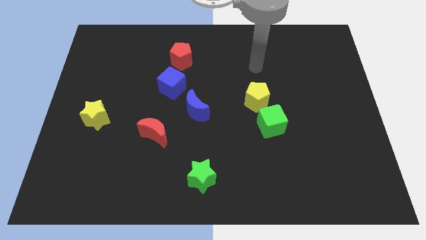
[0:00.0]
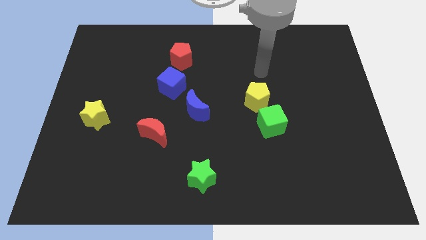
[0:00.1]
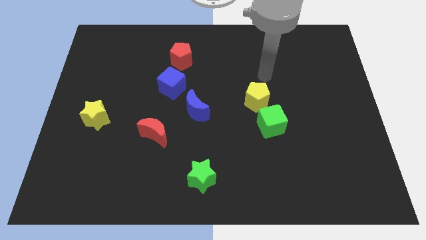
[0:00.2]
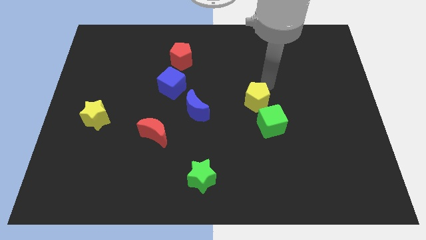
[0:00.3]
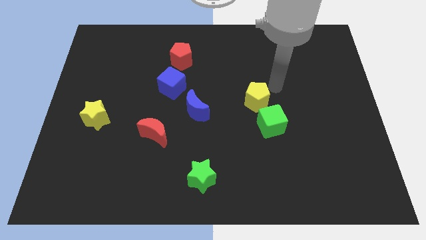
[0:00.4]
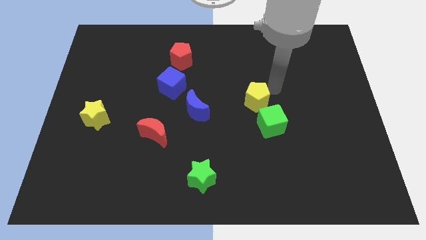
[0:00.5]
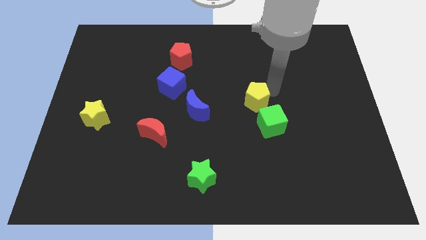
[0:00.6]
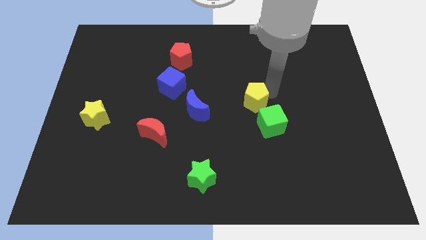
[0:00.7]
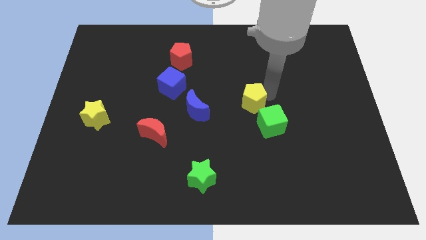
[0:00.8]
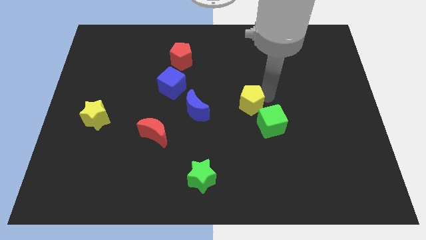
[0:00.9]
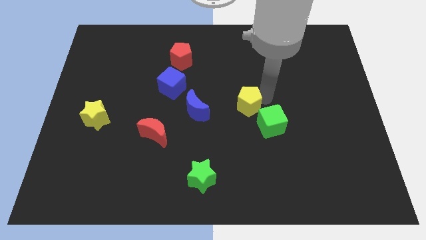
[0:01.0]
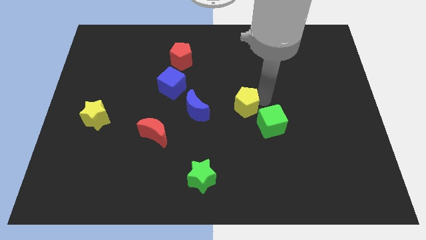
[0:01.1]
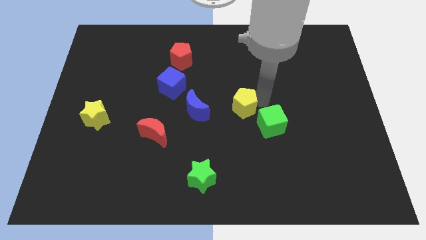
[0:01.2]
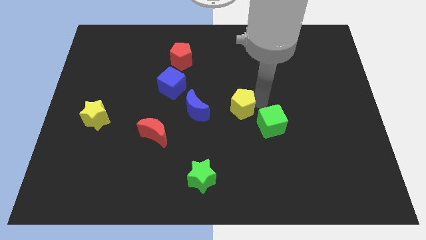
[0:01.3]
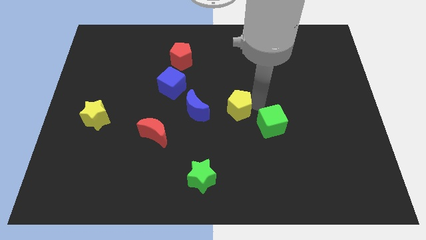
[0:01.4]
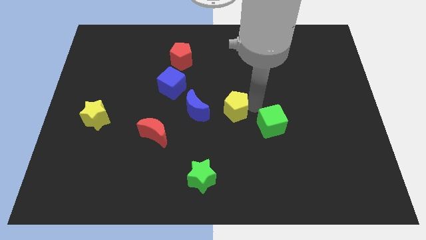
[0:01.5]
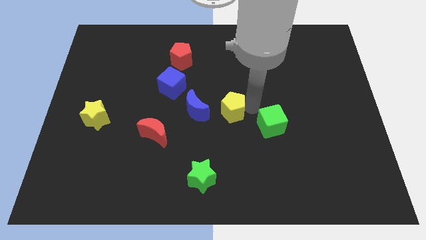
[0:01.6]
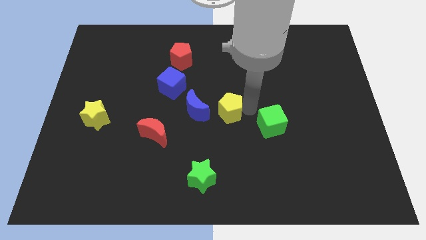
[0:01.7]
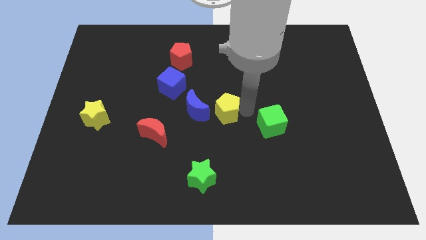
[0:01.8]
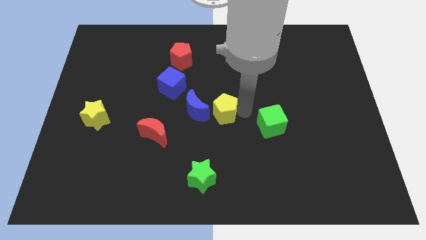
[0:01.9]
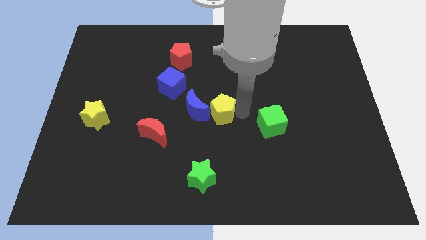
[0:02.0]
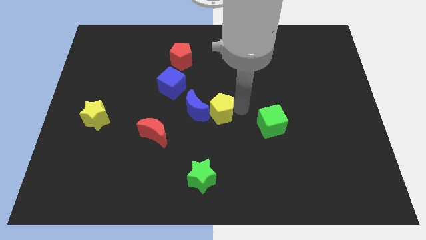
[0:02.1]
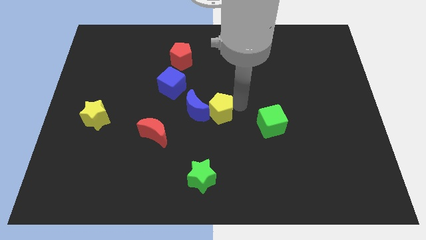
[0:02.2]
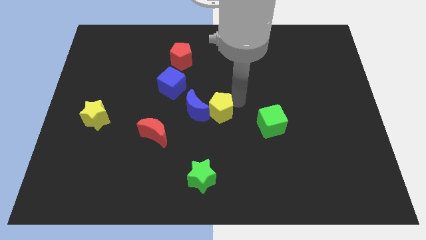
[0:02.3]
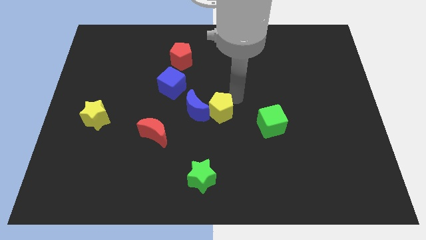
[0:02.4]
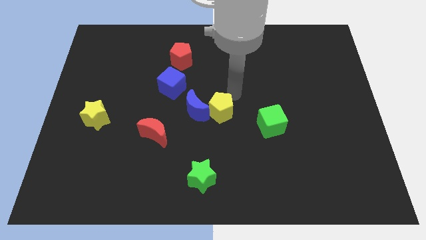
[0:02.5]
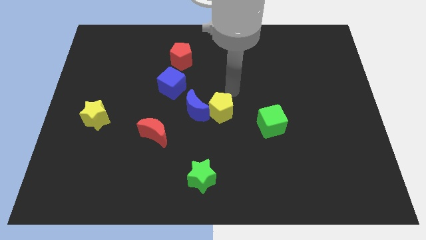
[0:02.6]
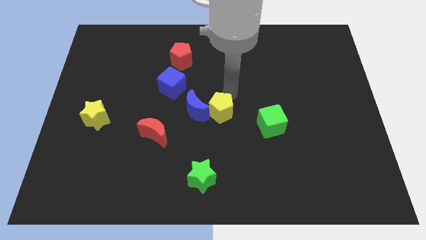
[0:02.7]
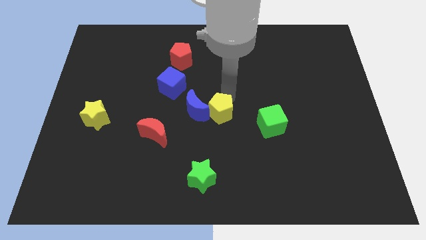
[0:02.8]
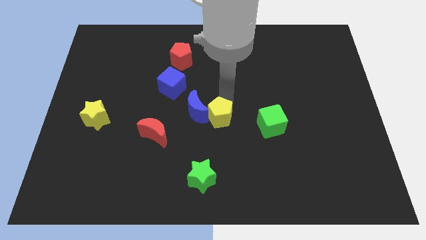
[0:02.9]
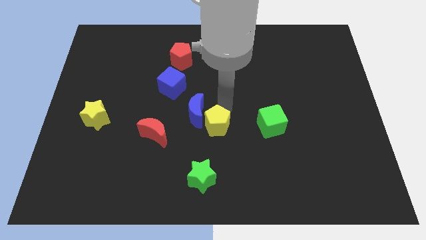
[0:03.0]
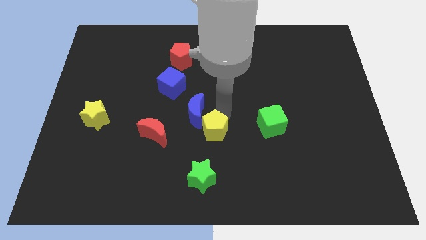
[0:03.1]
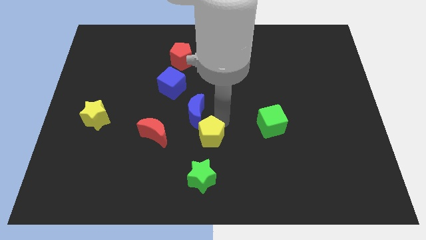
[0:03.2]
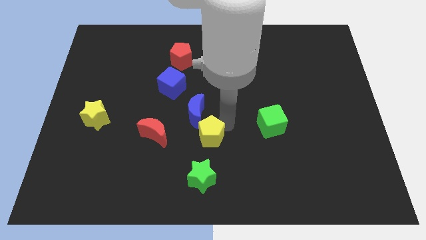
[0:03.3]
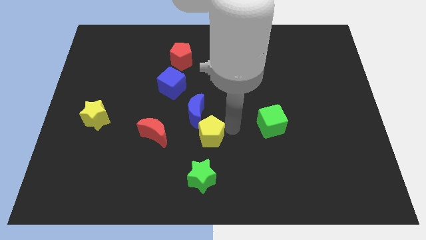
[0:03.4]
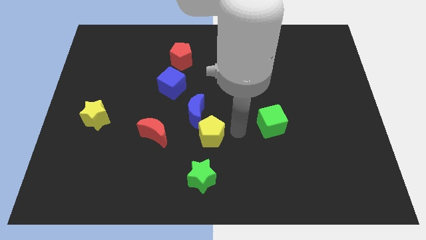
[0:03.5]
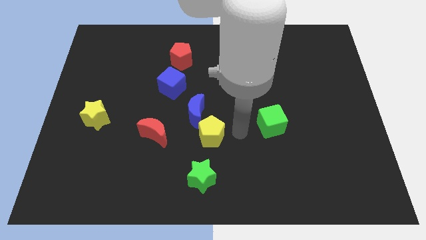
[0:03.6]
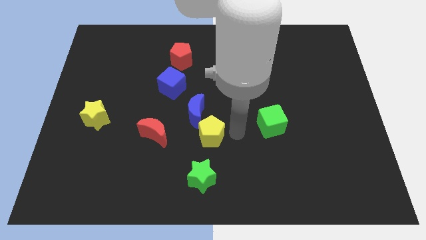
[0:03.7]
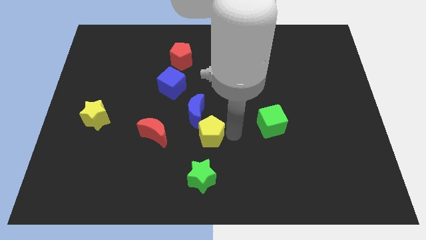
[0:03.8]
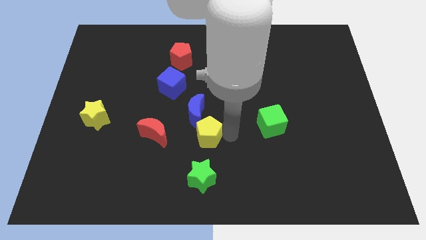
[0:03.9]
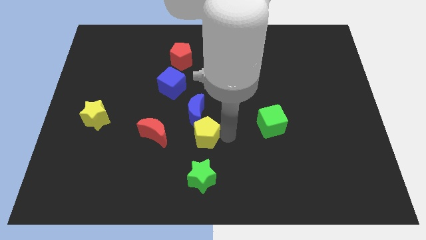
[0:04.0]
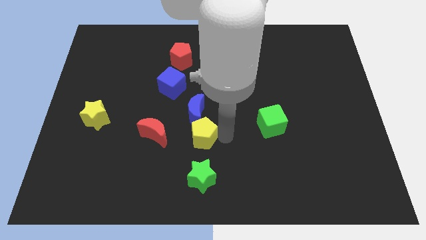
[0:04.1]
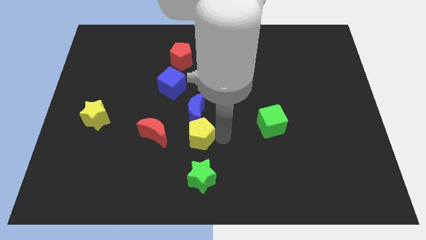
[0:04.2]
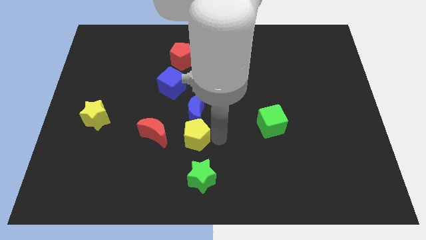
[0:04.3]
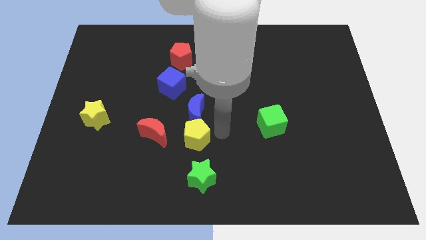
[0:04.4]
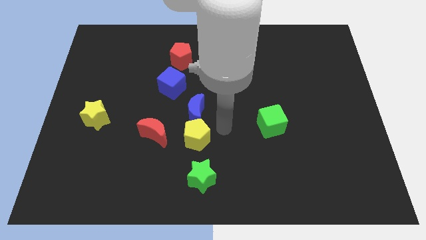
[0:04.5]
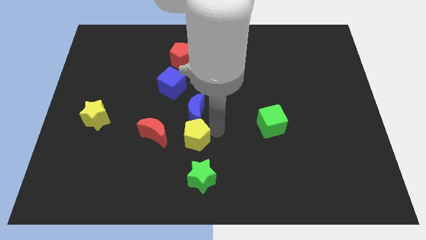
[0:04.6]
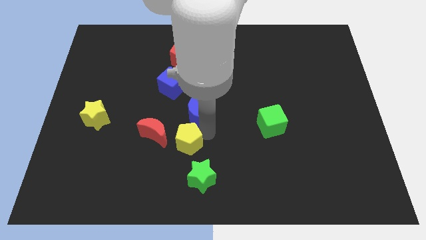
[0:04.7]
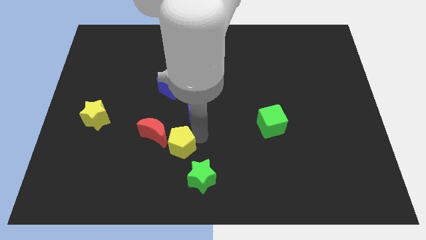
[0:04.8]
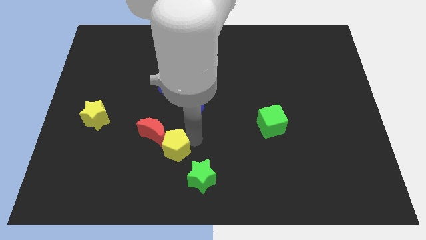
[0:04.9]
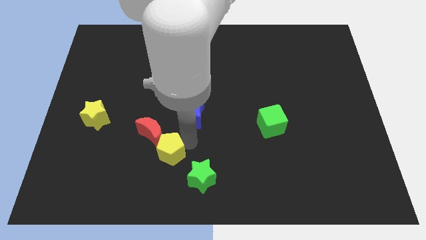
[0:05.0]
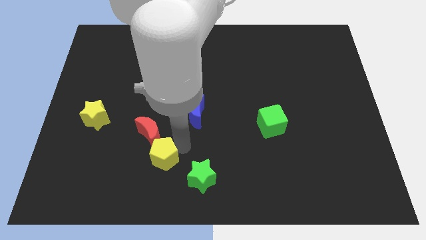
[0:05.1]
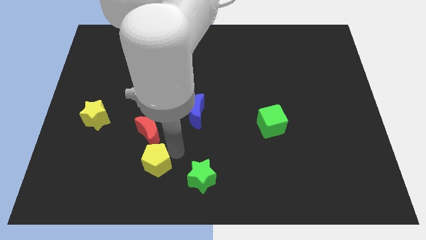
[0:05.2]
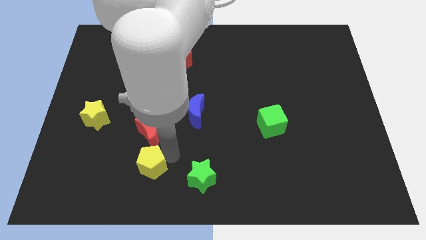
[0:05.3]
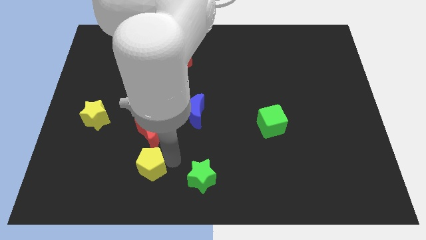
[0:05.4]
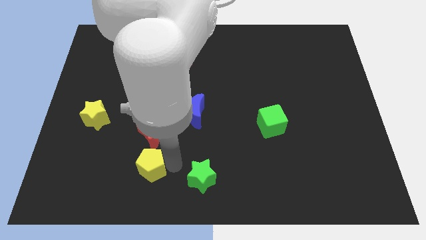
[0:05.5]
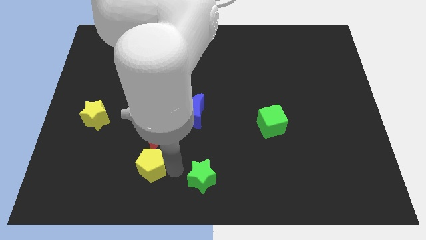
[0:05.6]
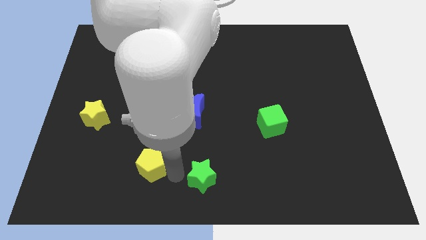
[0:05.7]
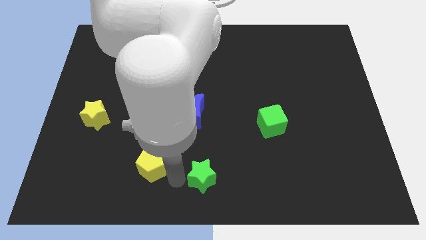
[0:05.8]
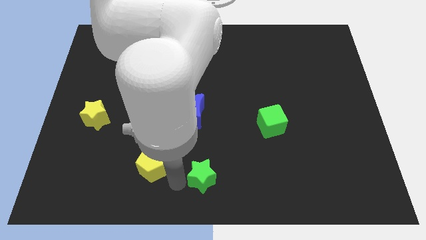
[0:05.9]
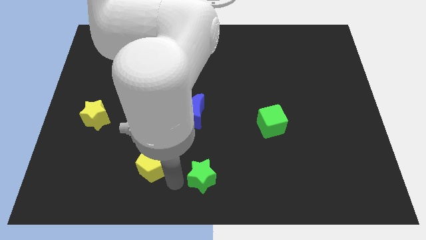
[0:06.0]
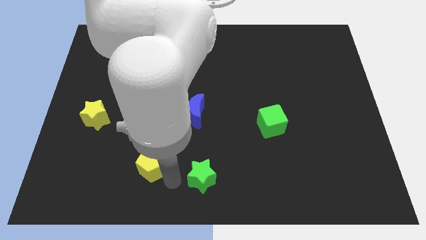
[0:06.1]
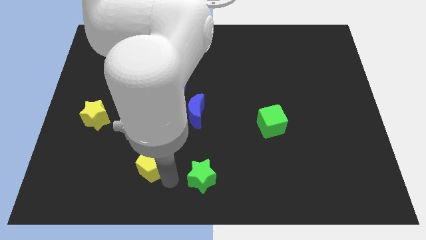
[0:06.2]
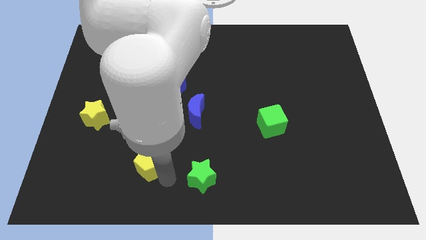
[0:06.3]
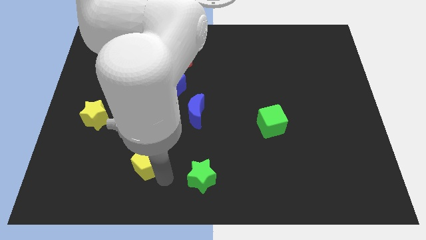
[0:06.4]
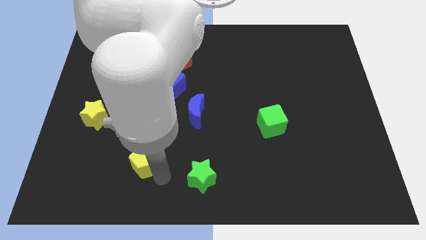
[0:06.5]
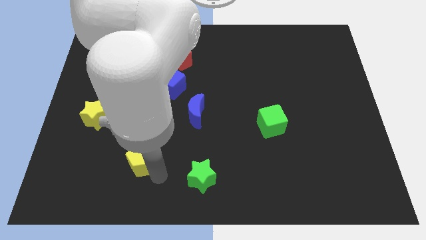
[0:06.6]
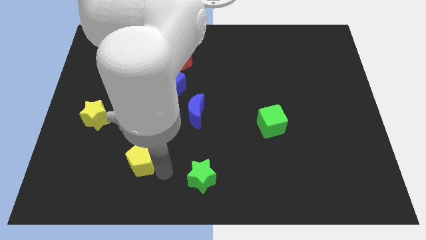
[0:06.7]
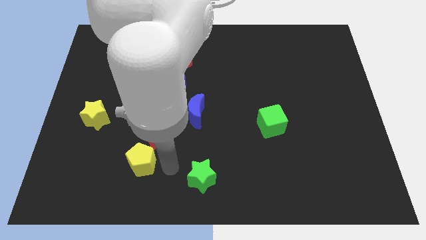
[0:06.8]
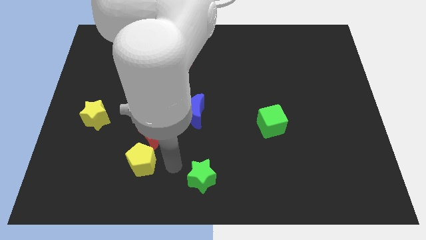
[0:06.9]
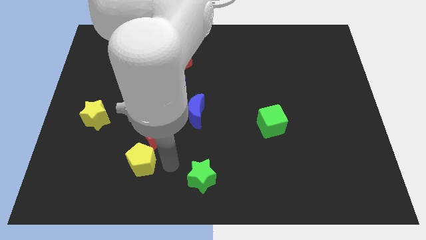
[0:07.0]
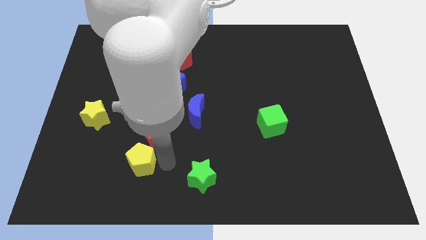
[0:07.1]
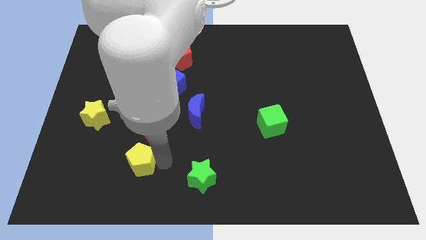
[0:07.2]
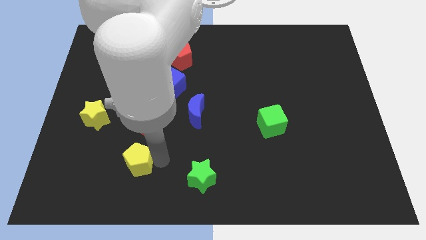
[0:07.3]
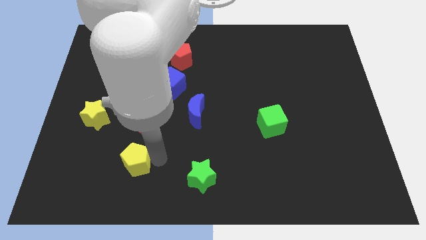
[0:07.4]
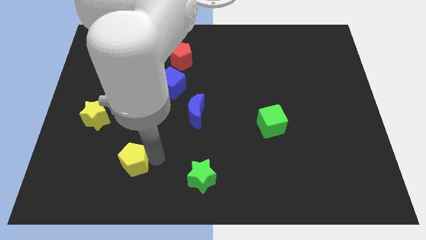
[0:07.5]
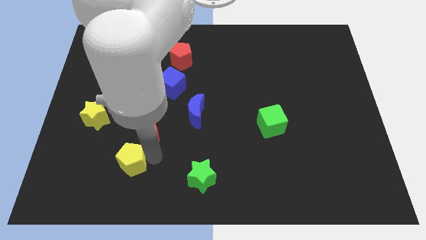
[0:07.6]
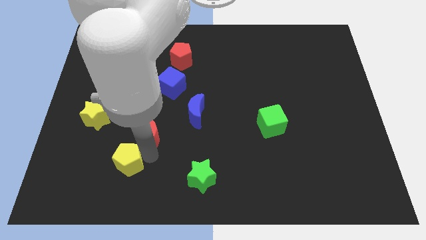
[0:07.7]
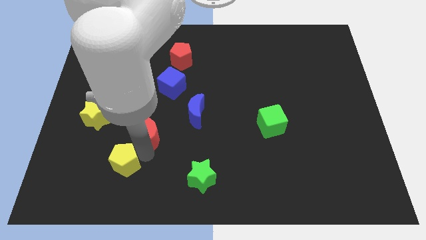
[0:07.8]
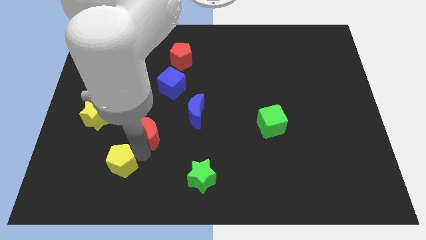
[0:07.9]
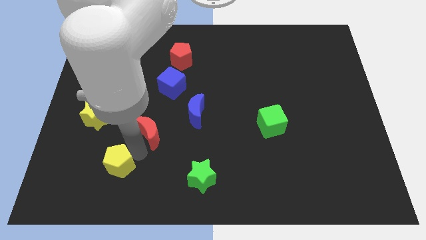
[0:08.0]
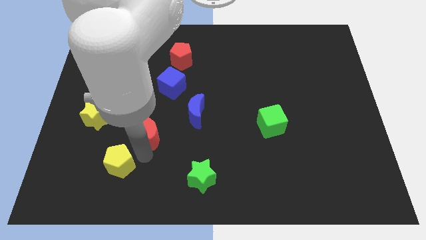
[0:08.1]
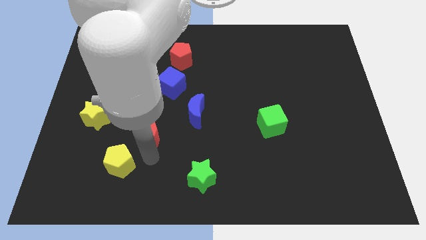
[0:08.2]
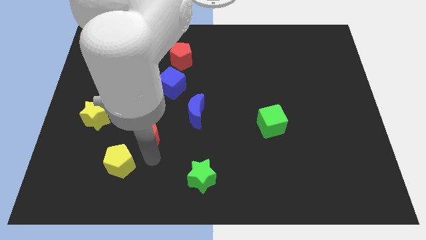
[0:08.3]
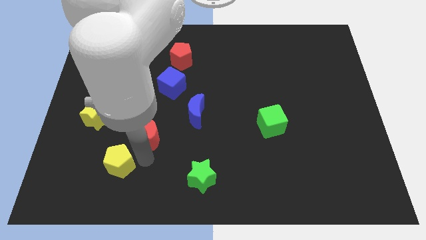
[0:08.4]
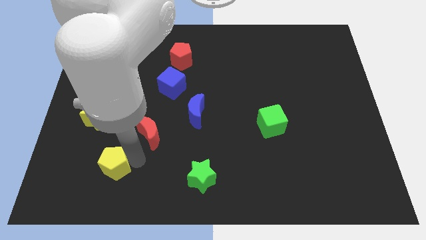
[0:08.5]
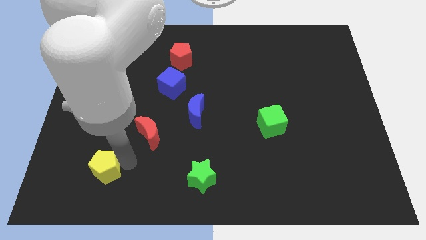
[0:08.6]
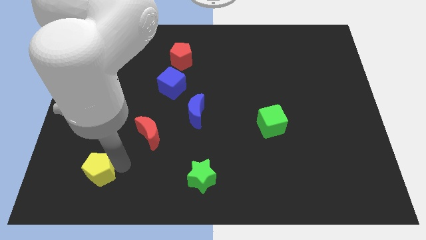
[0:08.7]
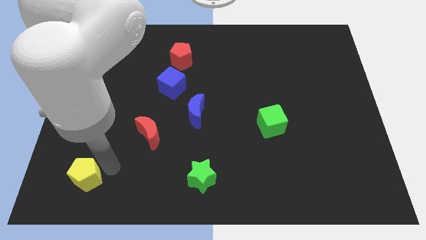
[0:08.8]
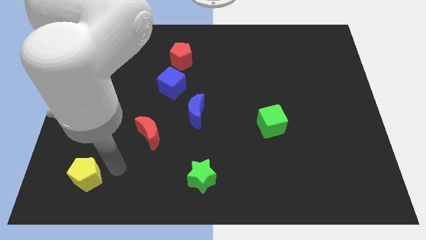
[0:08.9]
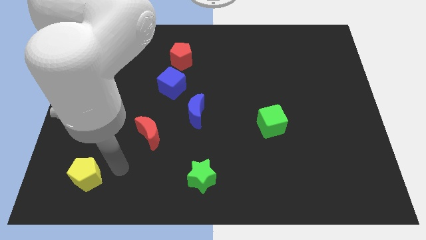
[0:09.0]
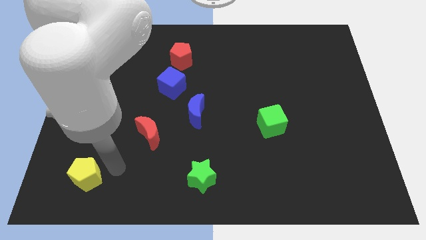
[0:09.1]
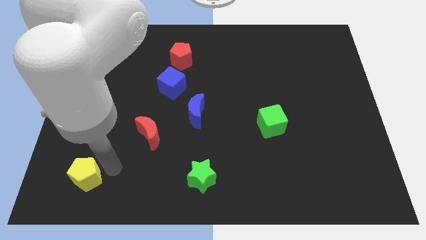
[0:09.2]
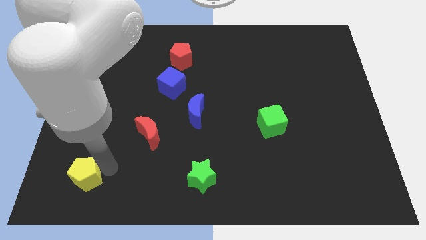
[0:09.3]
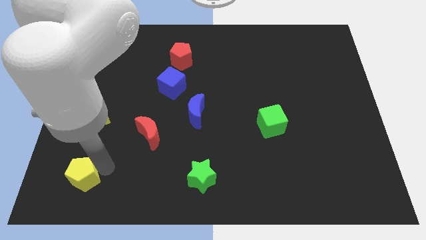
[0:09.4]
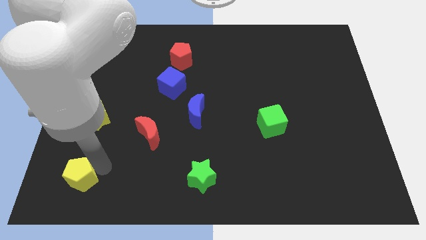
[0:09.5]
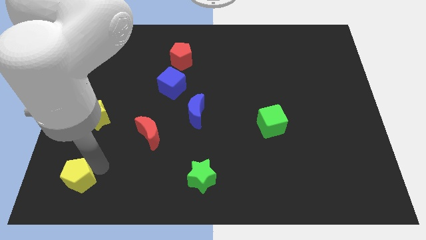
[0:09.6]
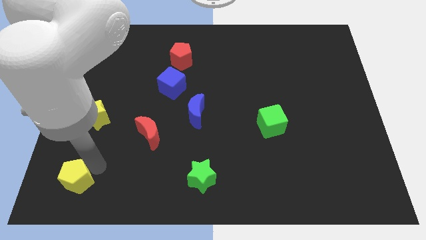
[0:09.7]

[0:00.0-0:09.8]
push the yellow pentagon to the bottom left corner
